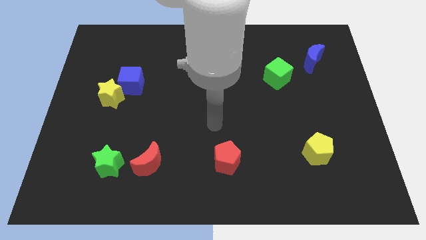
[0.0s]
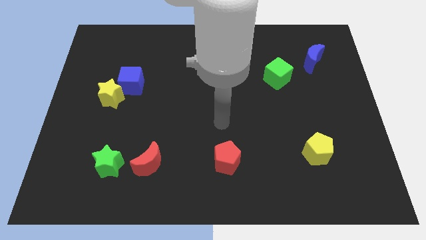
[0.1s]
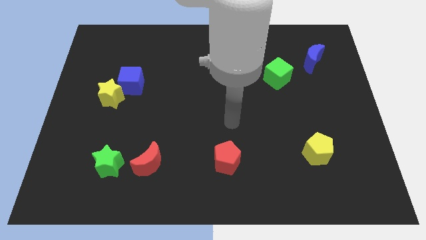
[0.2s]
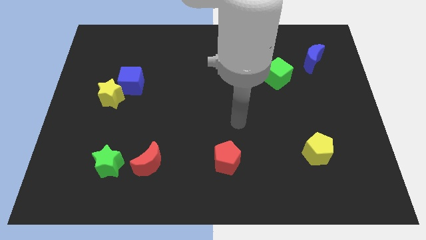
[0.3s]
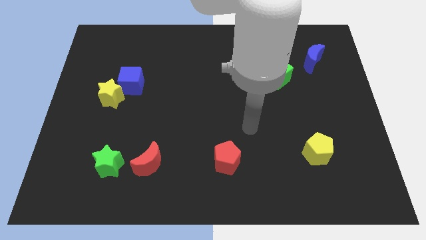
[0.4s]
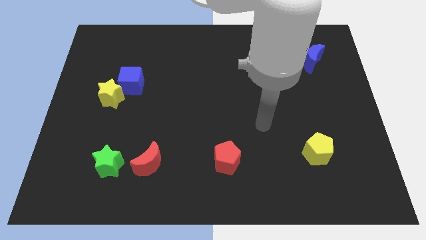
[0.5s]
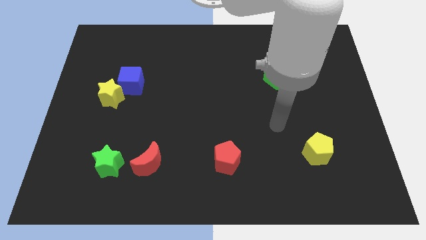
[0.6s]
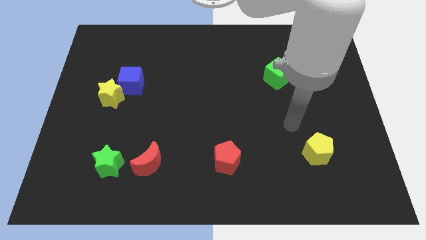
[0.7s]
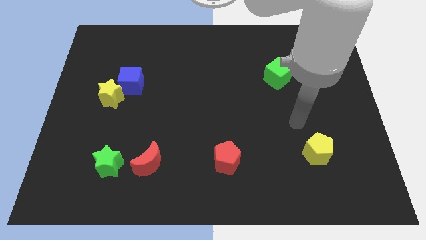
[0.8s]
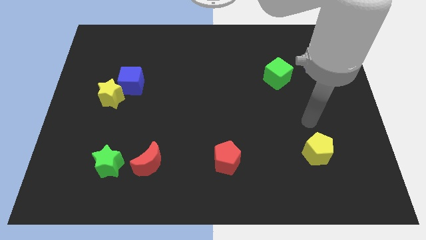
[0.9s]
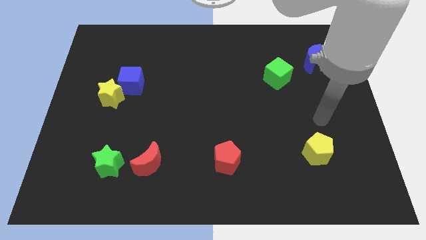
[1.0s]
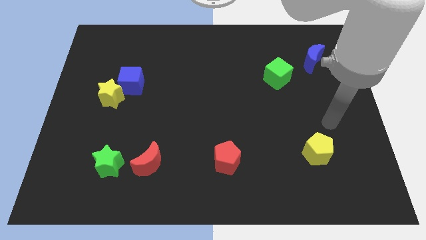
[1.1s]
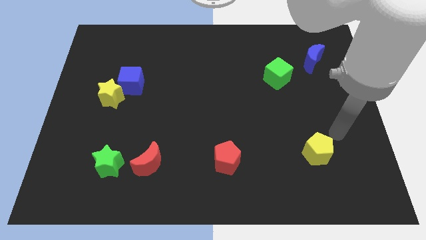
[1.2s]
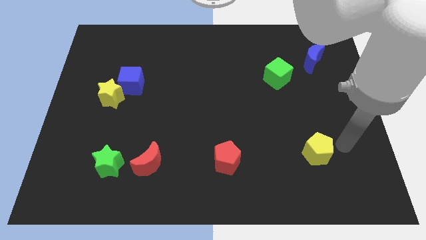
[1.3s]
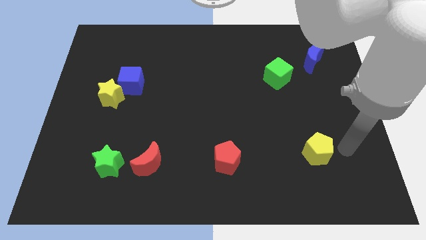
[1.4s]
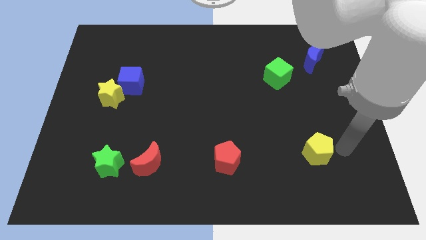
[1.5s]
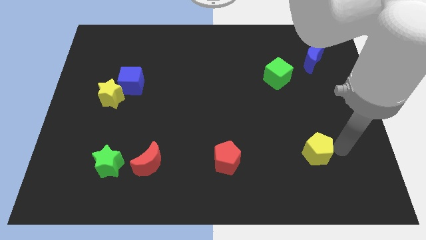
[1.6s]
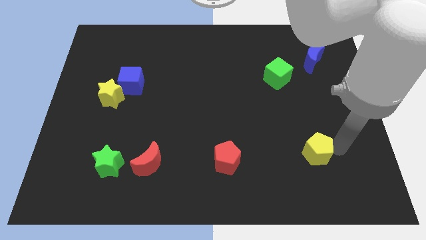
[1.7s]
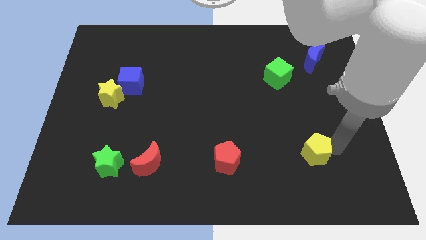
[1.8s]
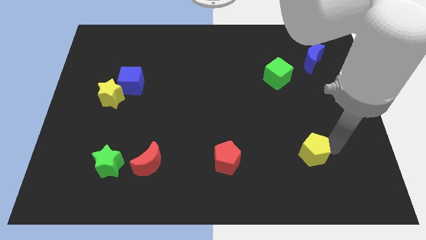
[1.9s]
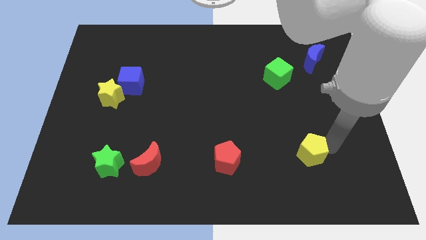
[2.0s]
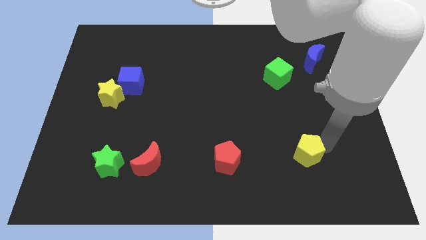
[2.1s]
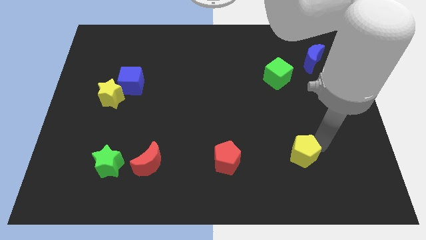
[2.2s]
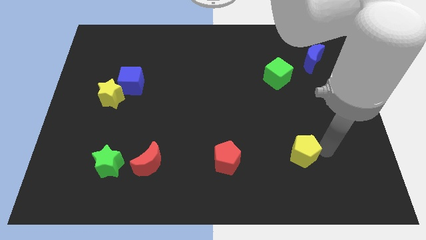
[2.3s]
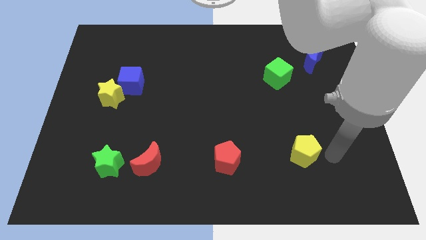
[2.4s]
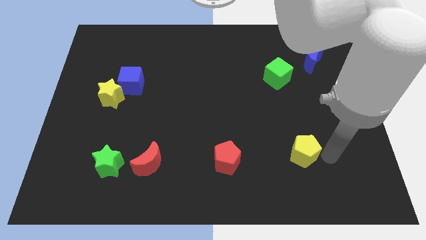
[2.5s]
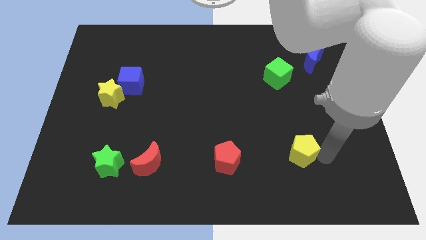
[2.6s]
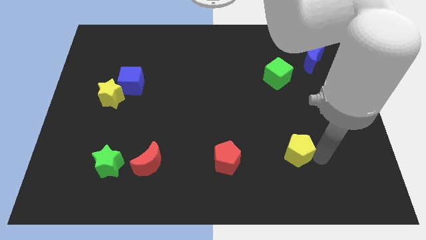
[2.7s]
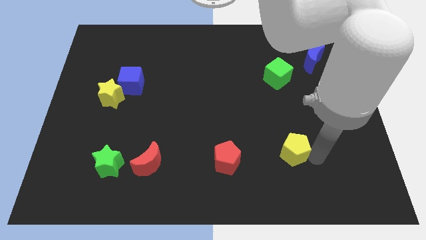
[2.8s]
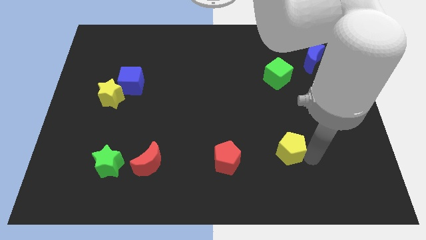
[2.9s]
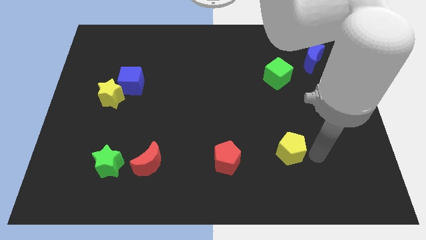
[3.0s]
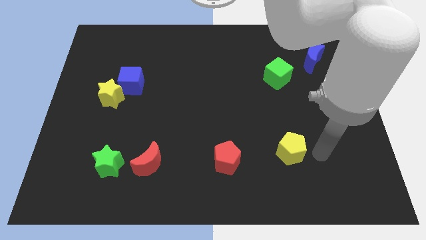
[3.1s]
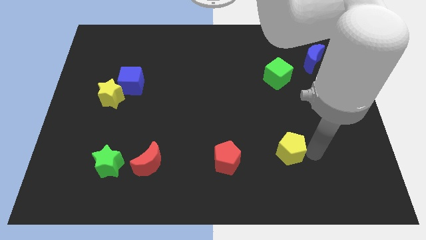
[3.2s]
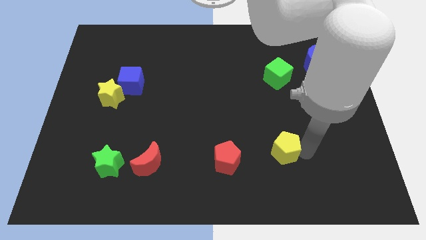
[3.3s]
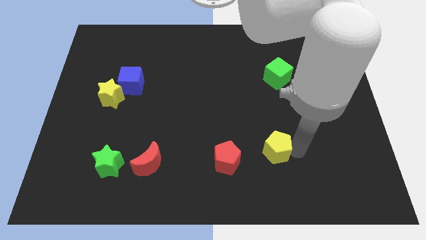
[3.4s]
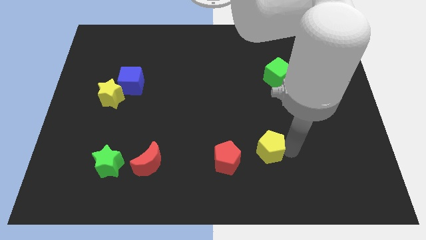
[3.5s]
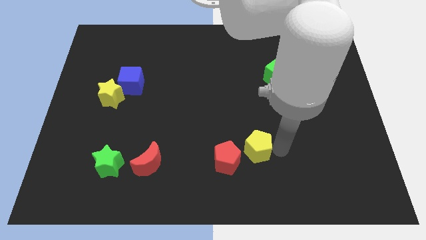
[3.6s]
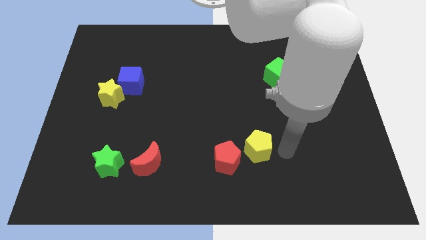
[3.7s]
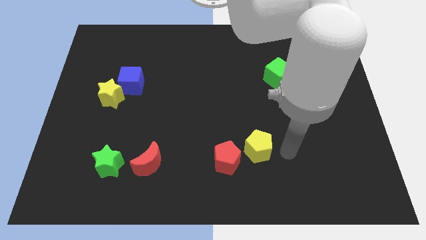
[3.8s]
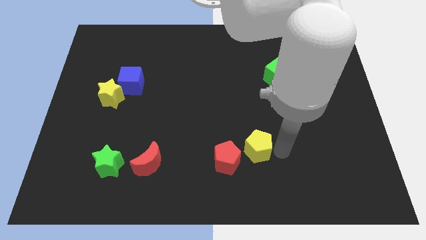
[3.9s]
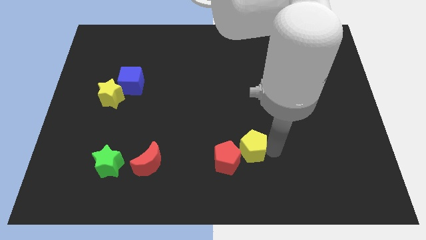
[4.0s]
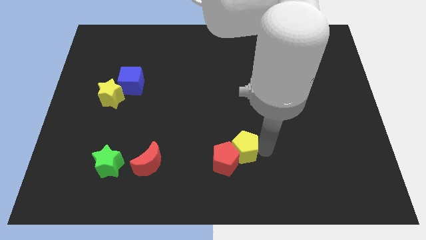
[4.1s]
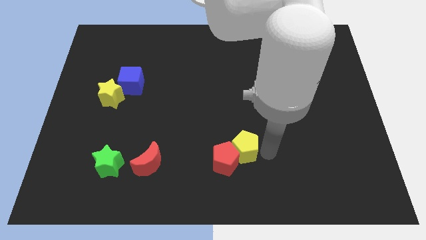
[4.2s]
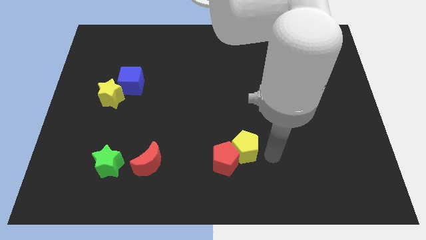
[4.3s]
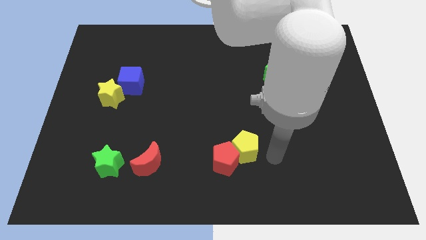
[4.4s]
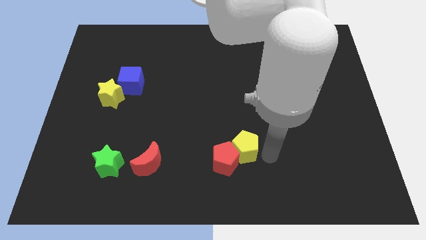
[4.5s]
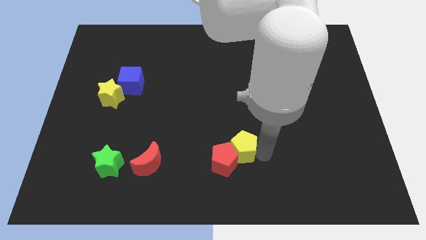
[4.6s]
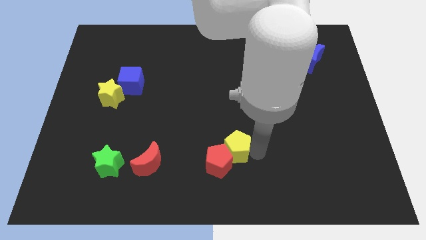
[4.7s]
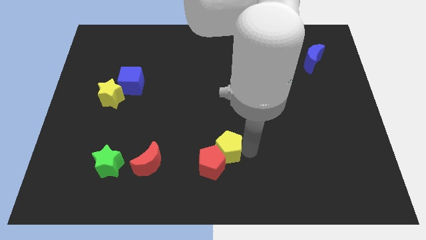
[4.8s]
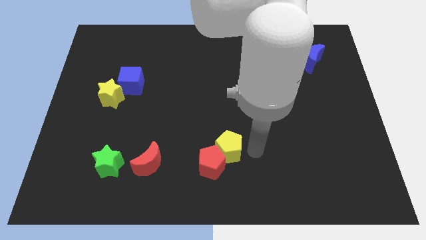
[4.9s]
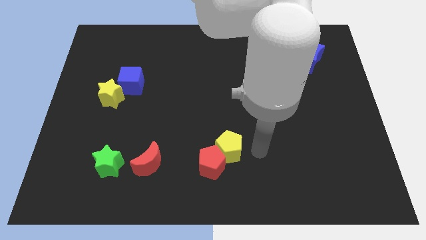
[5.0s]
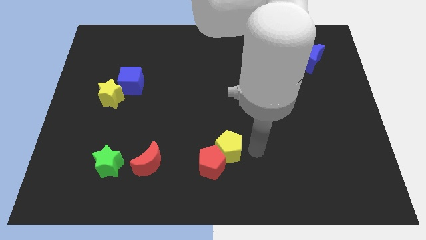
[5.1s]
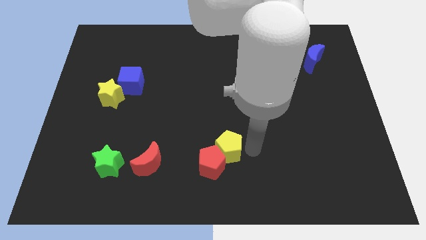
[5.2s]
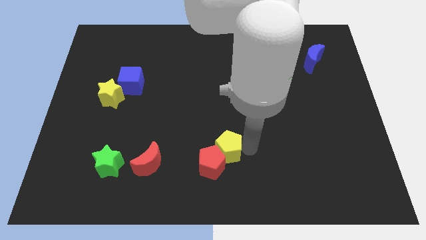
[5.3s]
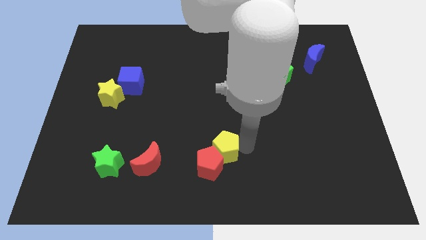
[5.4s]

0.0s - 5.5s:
move the yellow pentagon left

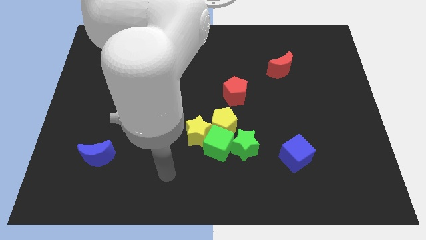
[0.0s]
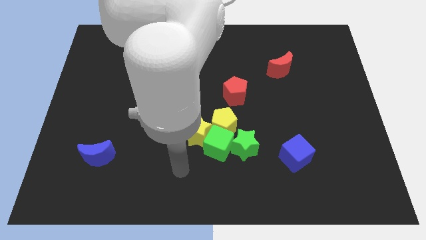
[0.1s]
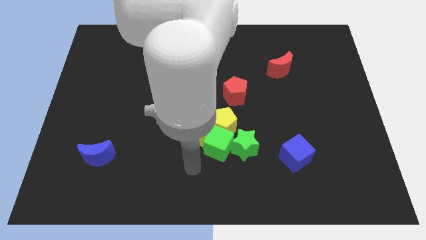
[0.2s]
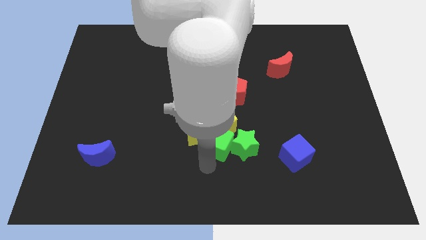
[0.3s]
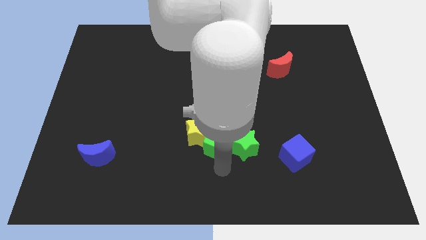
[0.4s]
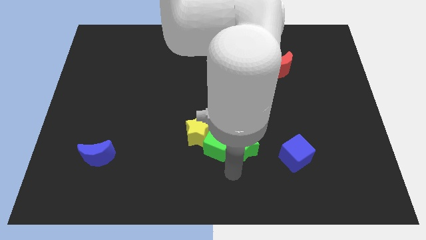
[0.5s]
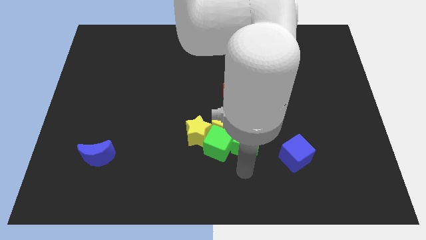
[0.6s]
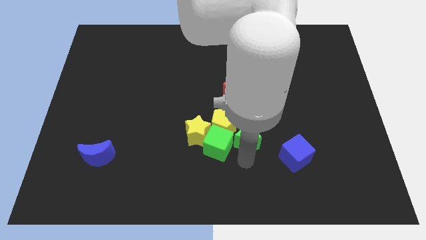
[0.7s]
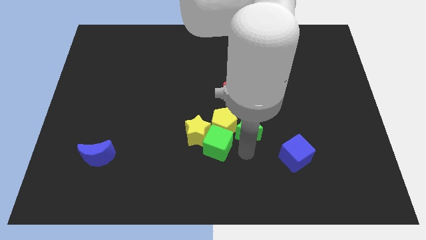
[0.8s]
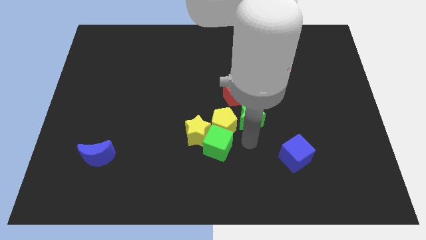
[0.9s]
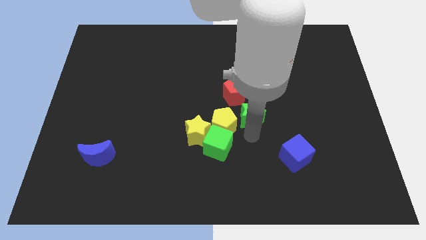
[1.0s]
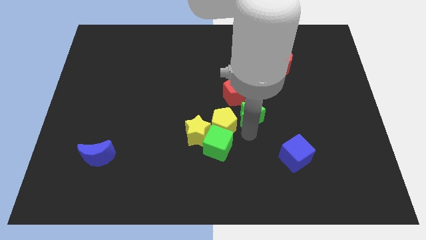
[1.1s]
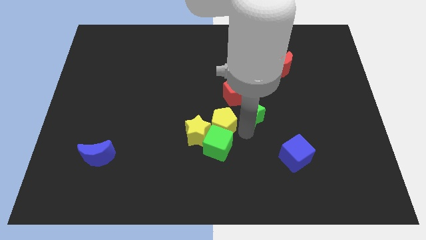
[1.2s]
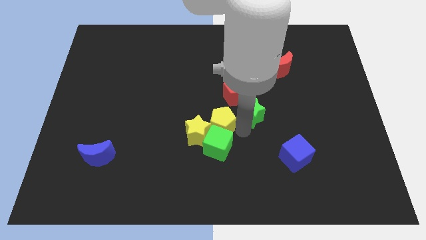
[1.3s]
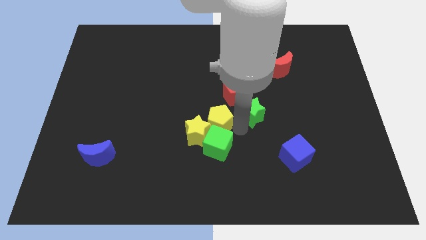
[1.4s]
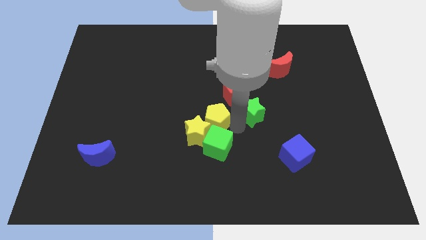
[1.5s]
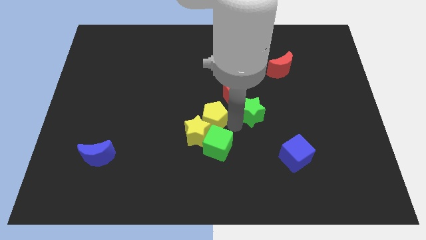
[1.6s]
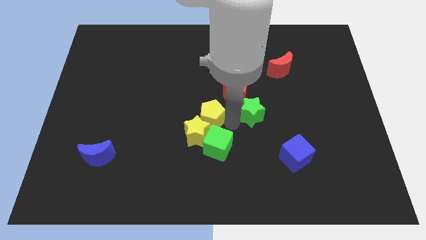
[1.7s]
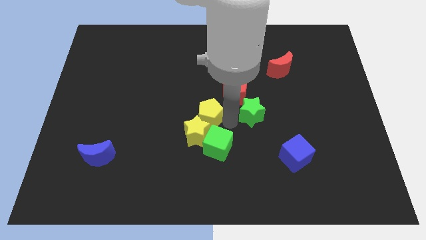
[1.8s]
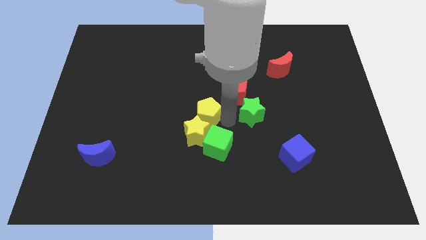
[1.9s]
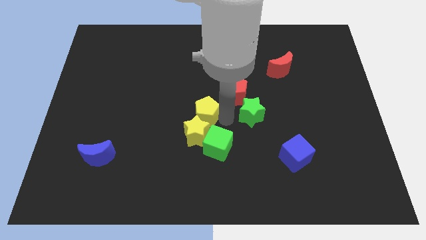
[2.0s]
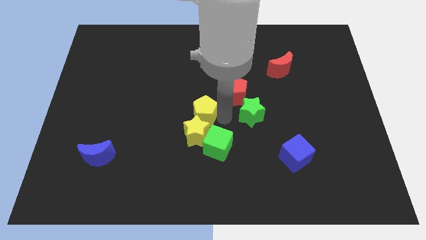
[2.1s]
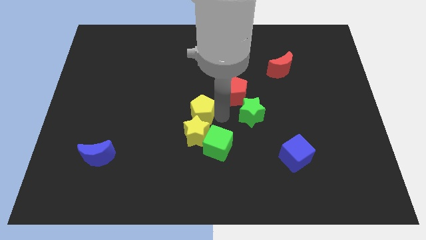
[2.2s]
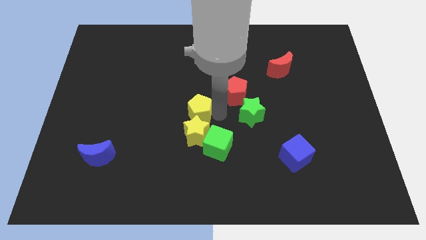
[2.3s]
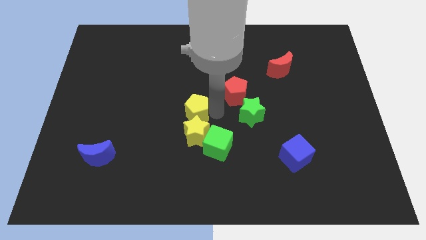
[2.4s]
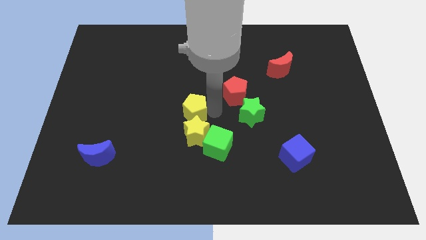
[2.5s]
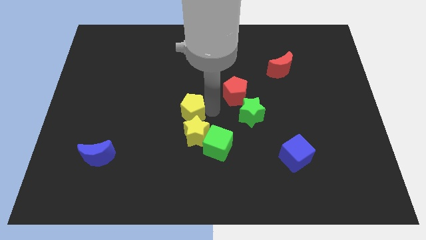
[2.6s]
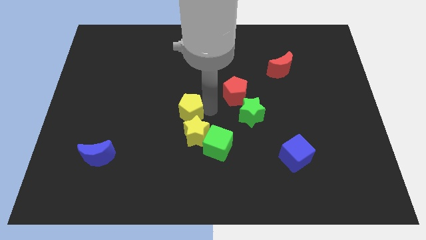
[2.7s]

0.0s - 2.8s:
push the yellow pentagon to the left somewhat
